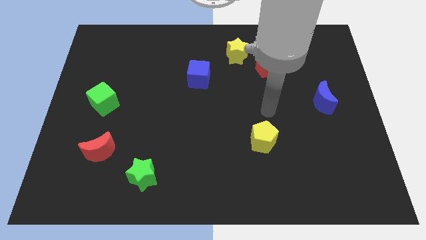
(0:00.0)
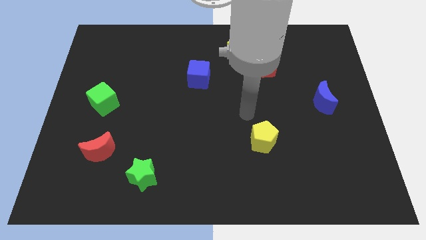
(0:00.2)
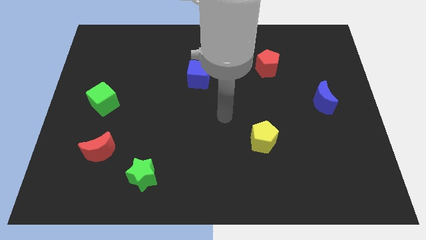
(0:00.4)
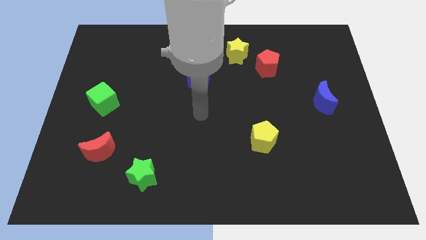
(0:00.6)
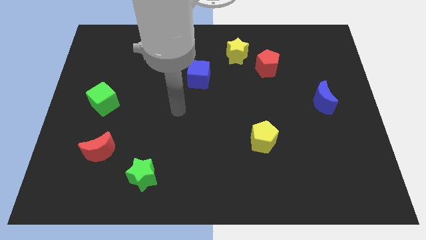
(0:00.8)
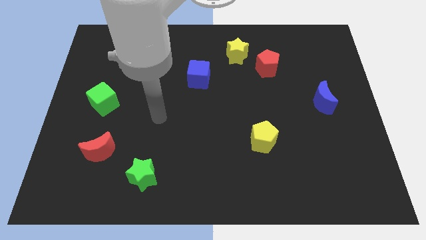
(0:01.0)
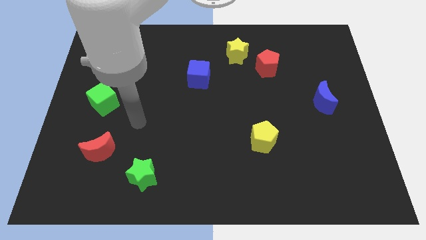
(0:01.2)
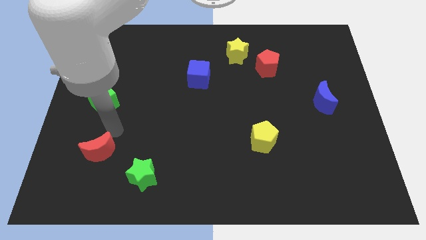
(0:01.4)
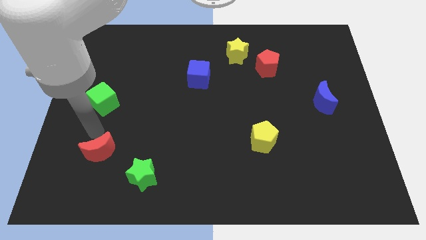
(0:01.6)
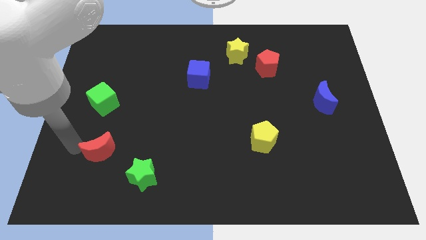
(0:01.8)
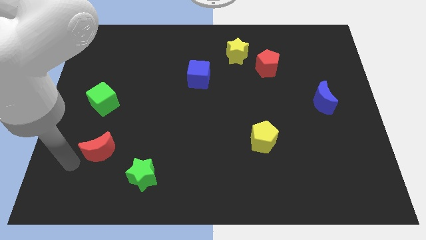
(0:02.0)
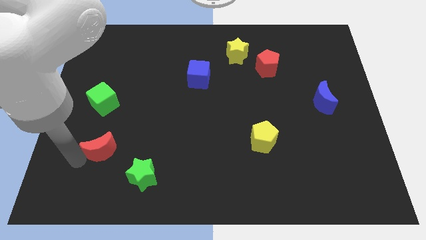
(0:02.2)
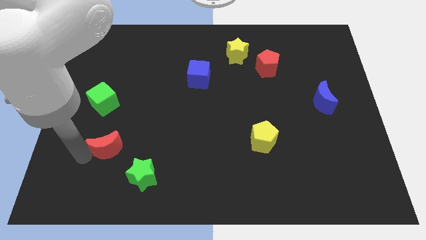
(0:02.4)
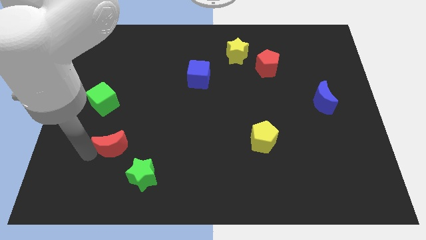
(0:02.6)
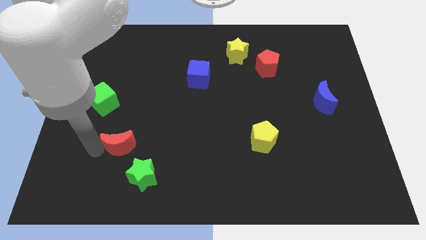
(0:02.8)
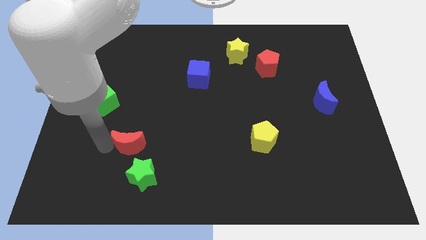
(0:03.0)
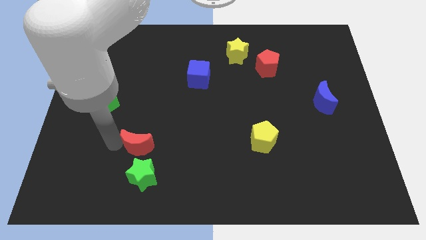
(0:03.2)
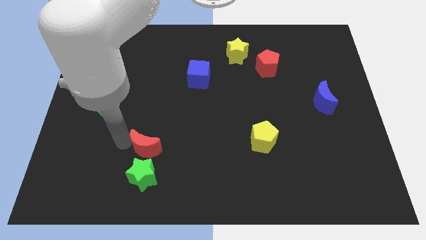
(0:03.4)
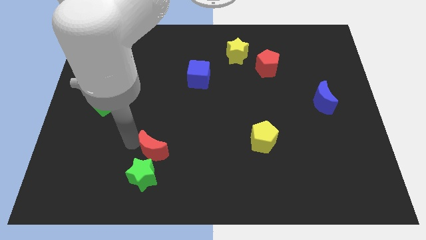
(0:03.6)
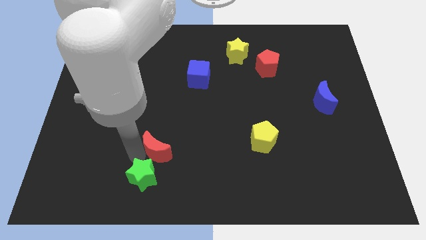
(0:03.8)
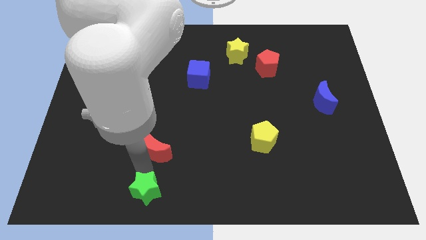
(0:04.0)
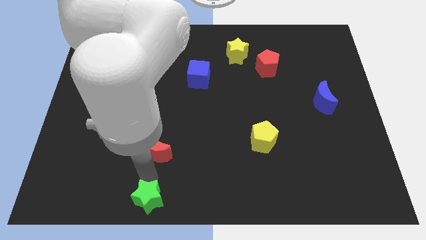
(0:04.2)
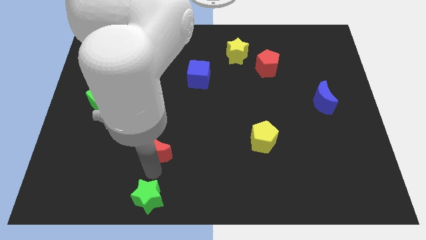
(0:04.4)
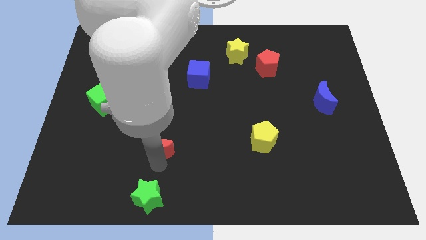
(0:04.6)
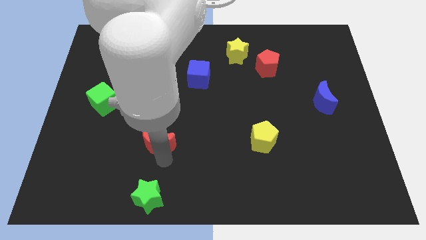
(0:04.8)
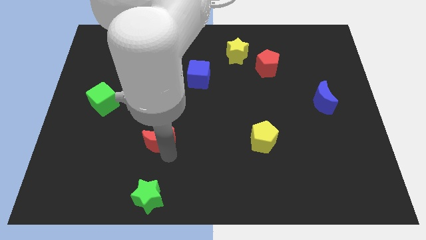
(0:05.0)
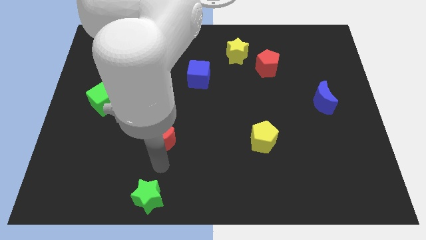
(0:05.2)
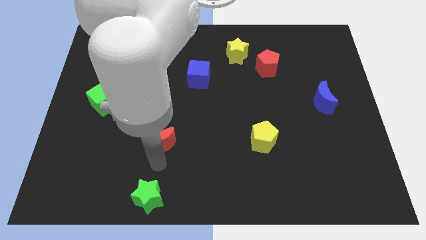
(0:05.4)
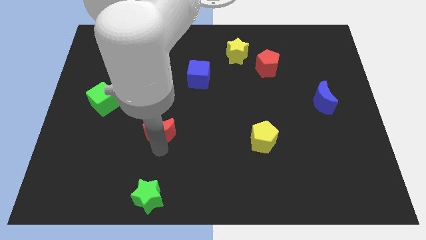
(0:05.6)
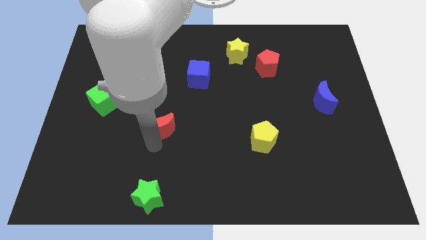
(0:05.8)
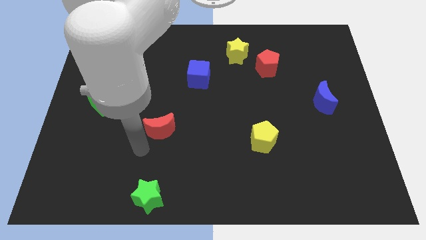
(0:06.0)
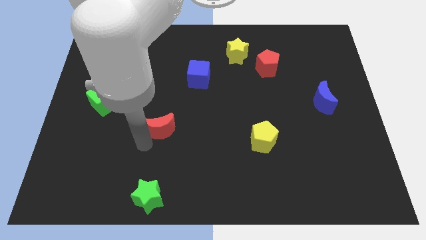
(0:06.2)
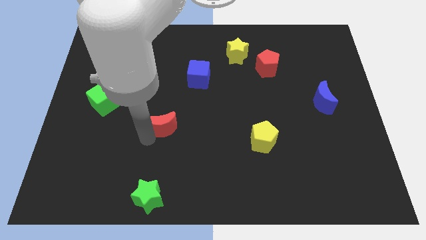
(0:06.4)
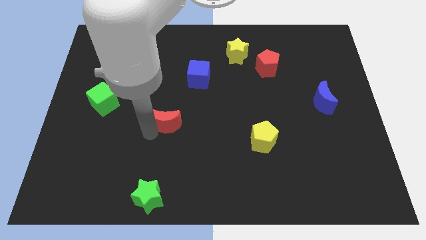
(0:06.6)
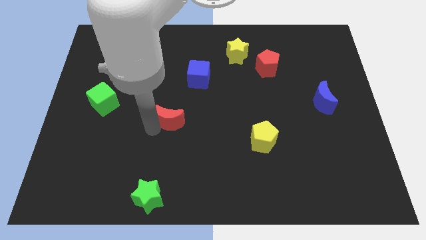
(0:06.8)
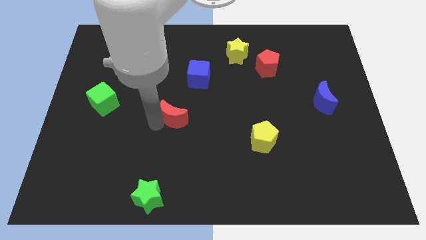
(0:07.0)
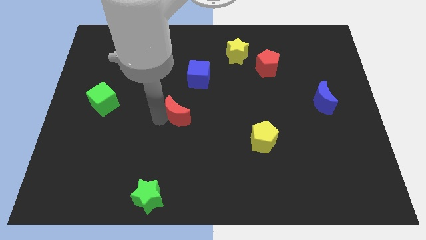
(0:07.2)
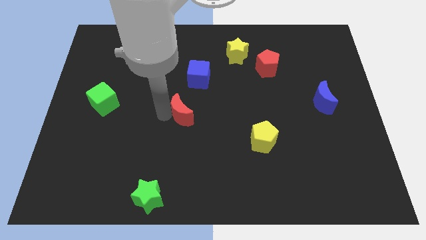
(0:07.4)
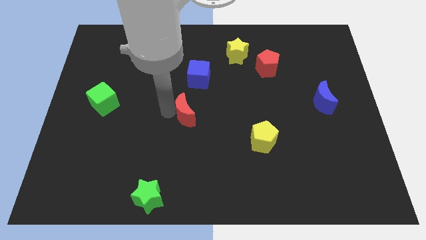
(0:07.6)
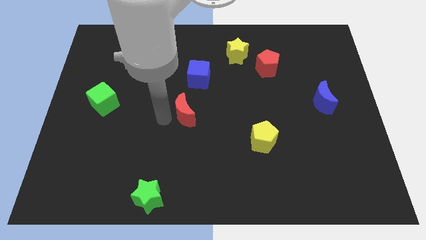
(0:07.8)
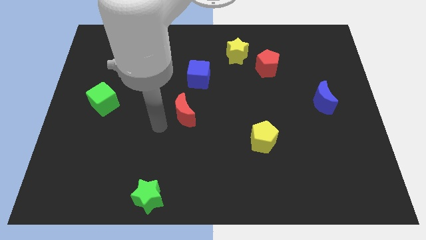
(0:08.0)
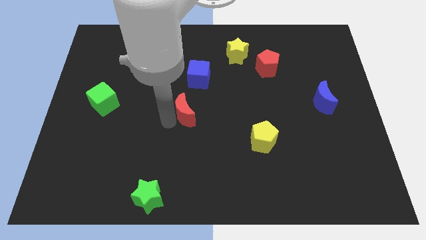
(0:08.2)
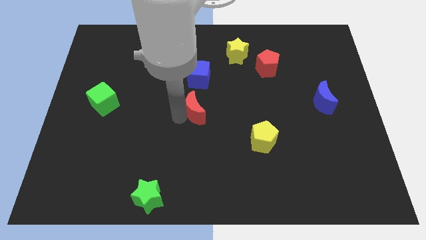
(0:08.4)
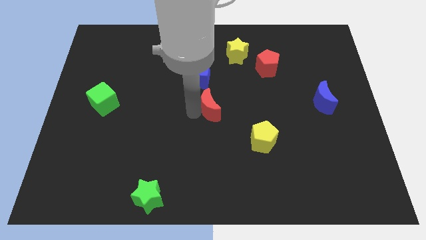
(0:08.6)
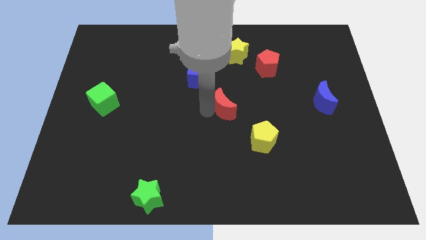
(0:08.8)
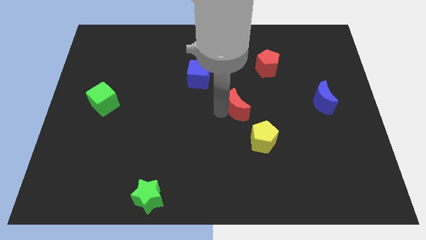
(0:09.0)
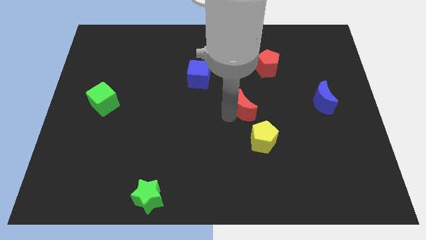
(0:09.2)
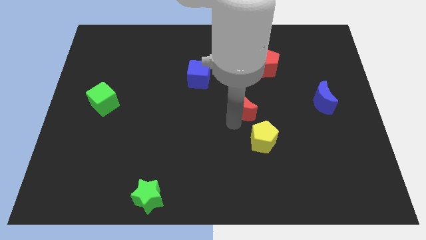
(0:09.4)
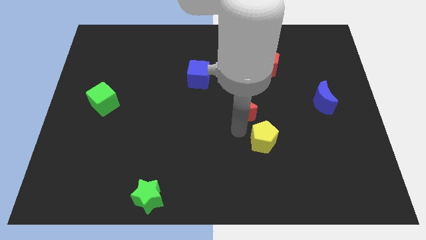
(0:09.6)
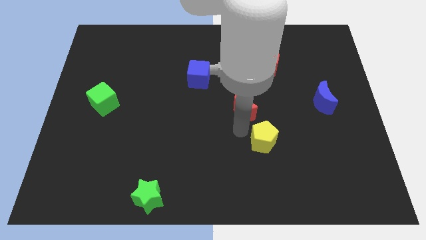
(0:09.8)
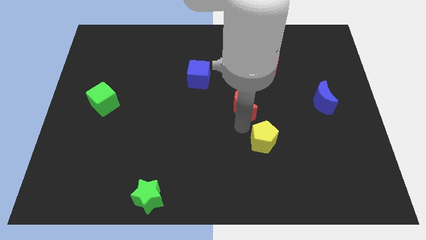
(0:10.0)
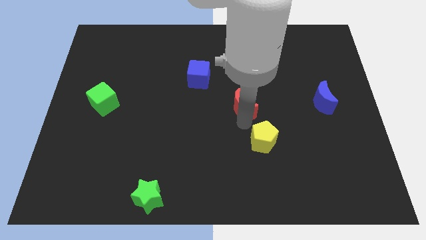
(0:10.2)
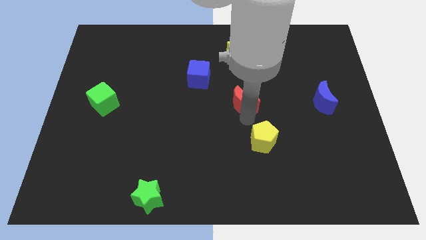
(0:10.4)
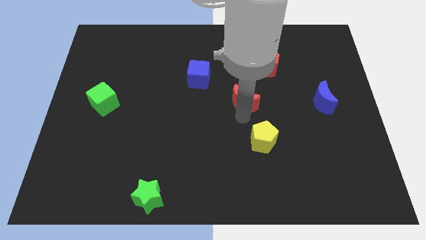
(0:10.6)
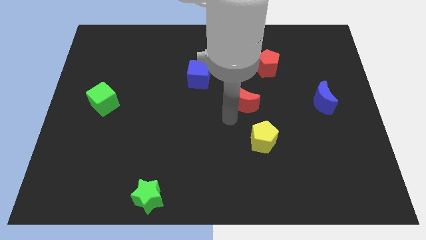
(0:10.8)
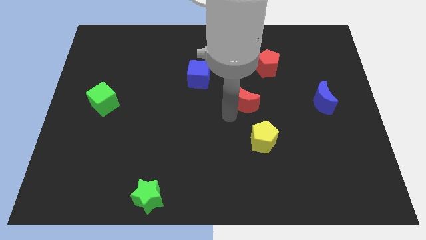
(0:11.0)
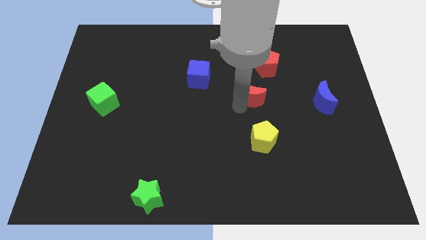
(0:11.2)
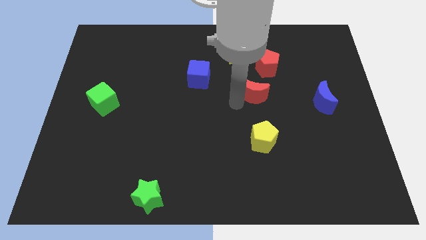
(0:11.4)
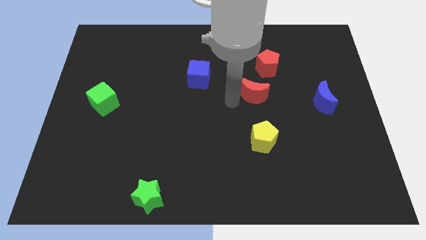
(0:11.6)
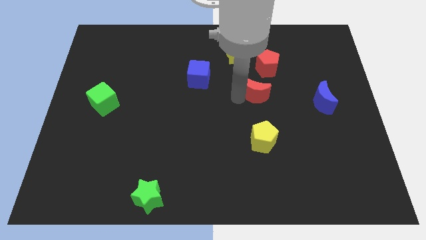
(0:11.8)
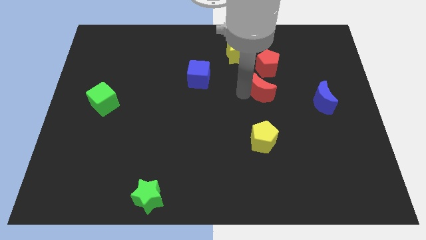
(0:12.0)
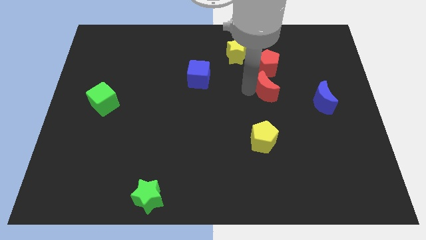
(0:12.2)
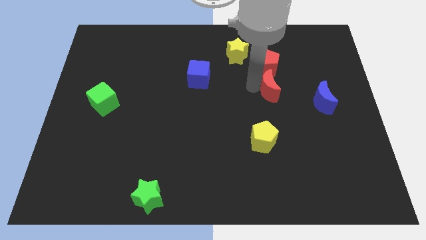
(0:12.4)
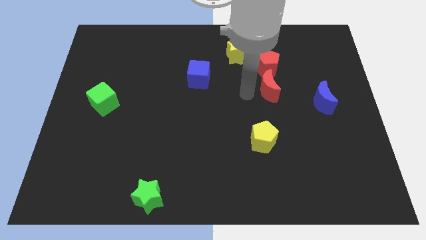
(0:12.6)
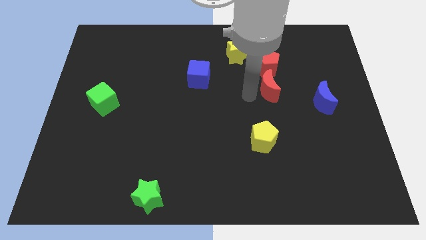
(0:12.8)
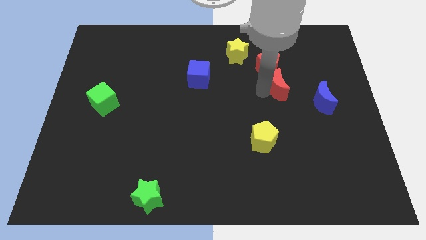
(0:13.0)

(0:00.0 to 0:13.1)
put the red moon to the bottom right of the red pentagon

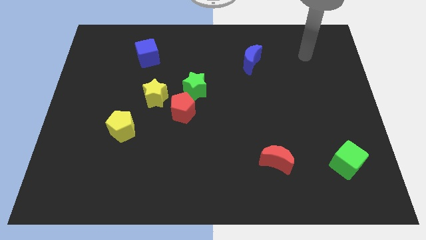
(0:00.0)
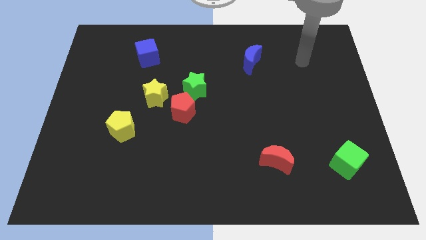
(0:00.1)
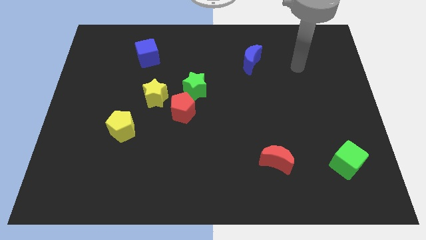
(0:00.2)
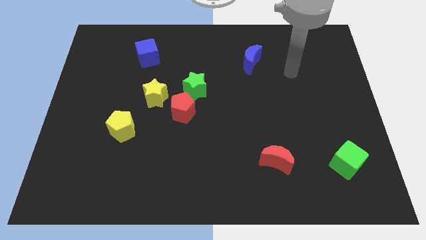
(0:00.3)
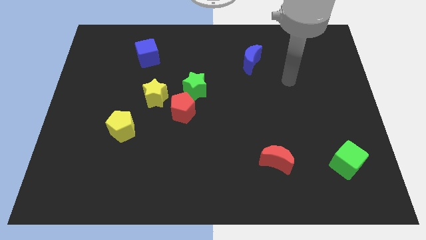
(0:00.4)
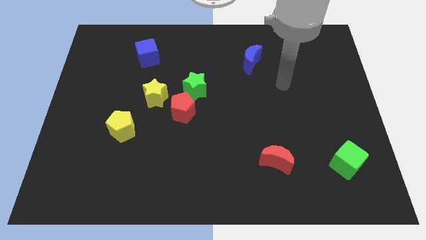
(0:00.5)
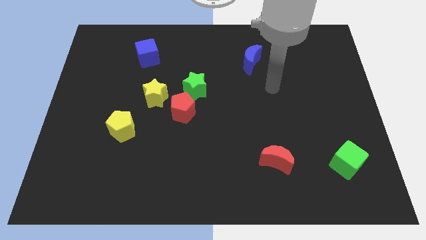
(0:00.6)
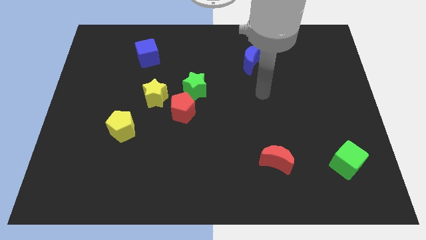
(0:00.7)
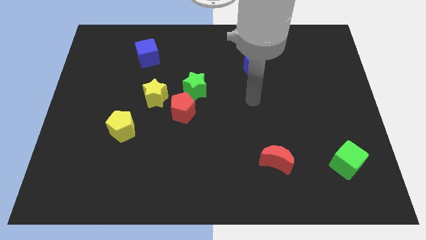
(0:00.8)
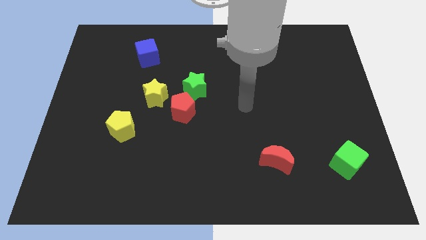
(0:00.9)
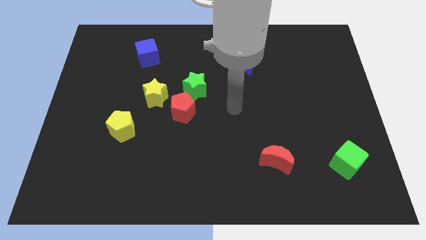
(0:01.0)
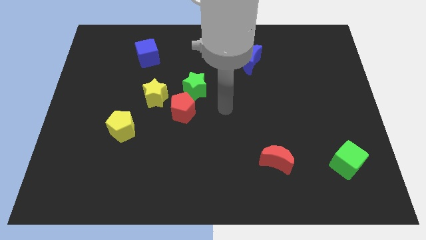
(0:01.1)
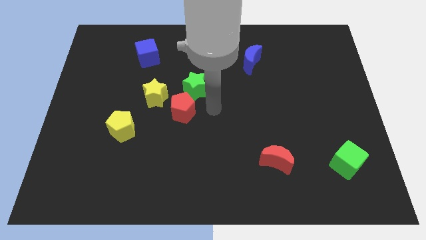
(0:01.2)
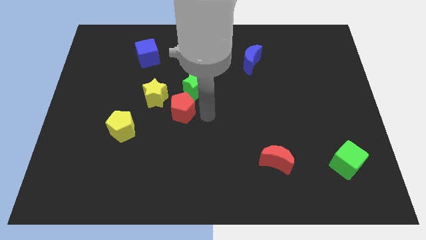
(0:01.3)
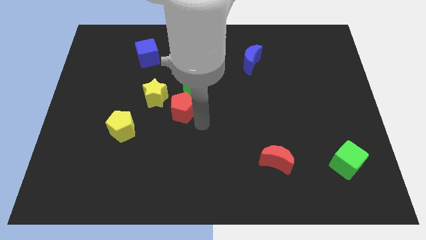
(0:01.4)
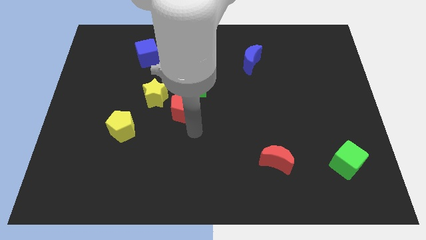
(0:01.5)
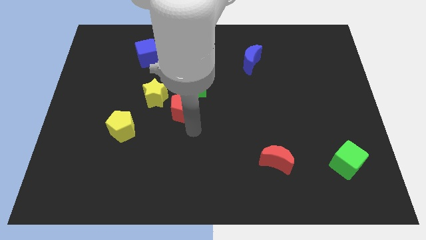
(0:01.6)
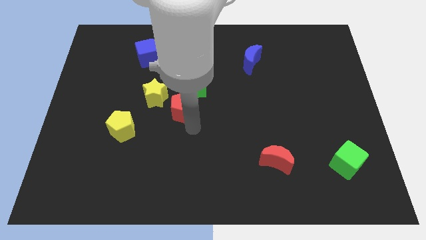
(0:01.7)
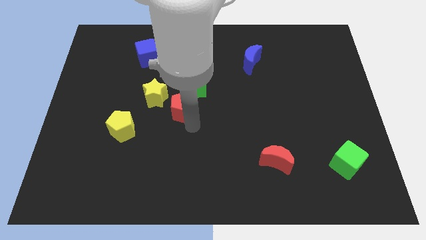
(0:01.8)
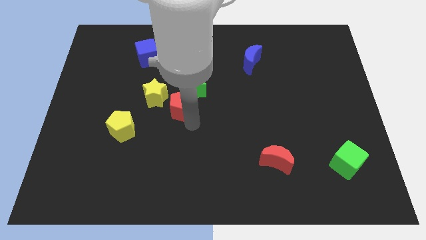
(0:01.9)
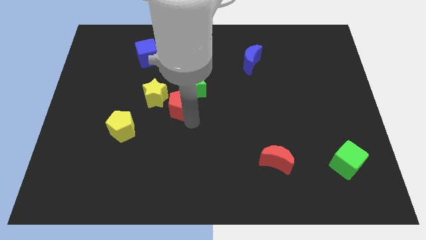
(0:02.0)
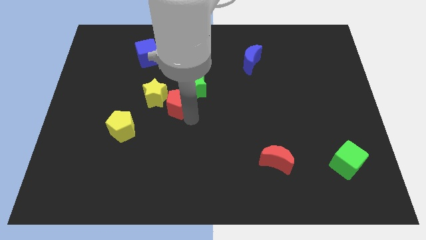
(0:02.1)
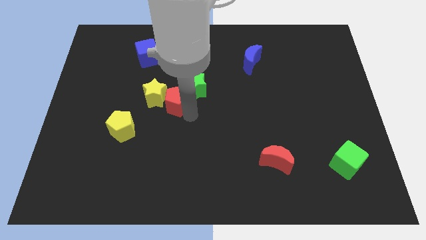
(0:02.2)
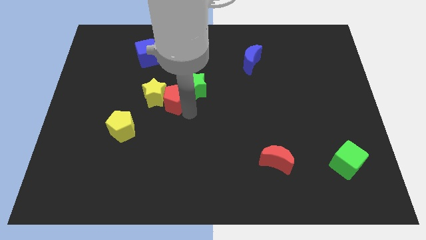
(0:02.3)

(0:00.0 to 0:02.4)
put the red pentagon diagonally up and to the right of the yellow star
